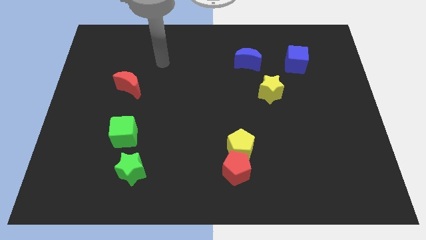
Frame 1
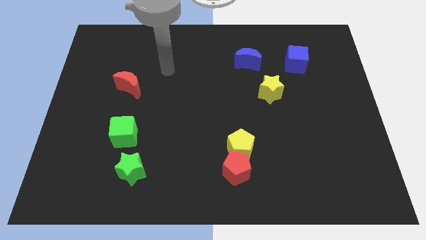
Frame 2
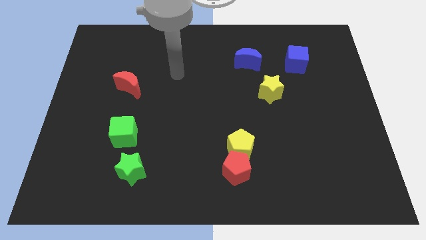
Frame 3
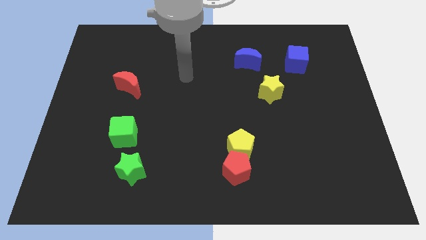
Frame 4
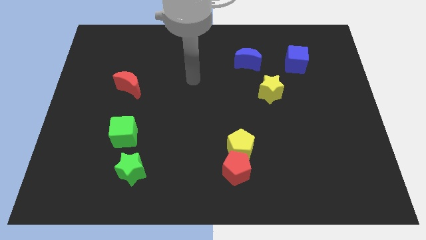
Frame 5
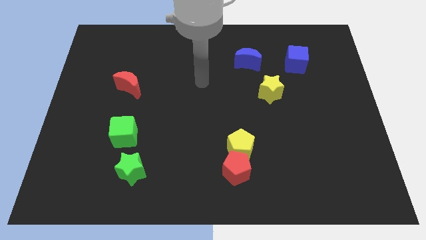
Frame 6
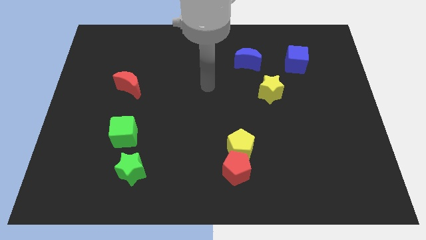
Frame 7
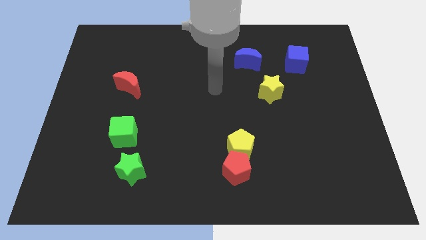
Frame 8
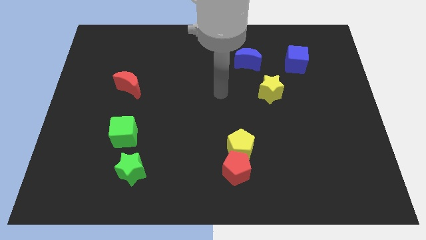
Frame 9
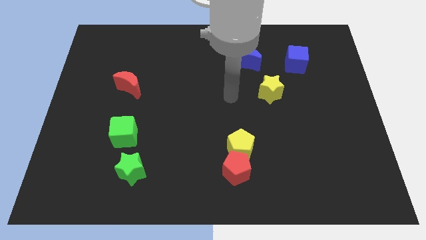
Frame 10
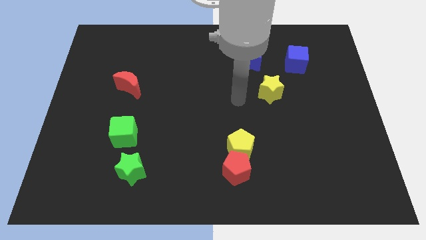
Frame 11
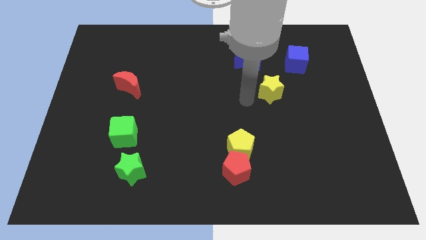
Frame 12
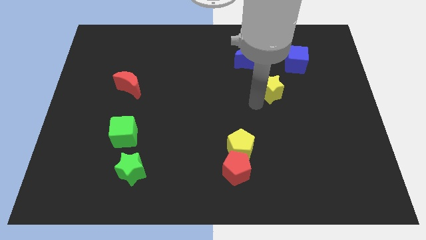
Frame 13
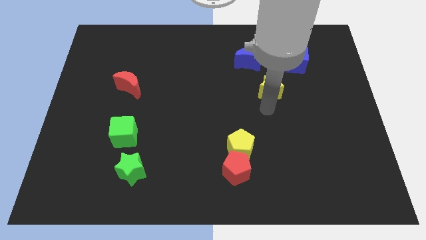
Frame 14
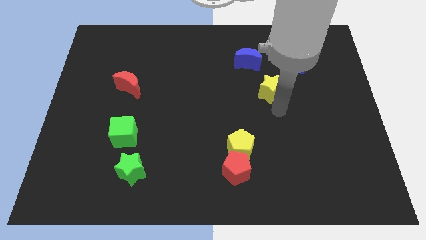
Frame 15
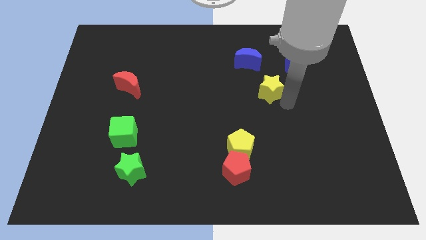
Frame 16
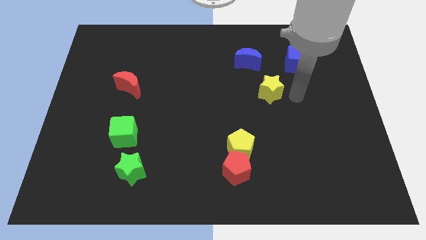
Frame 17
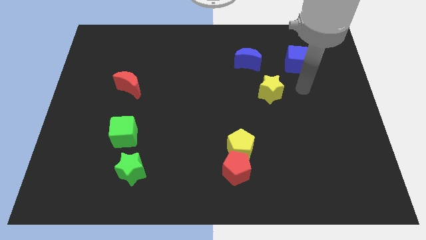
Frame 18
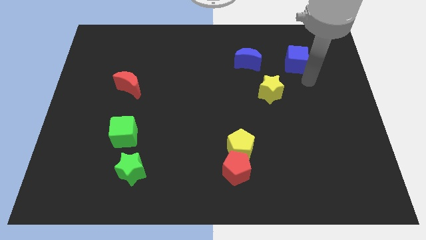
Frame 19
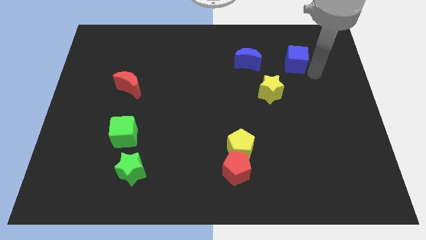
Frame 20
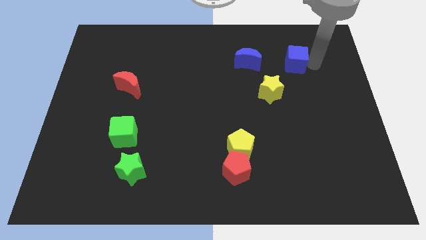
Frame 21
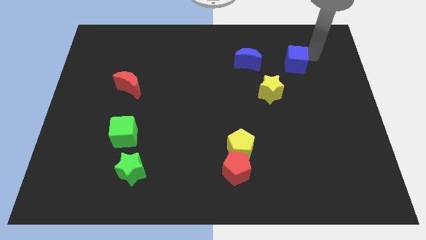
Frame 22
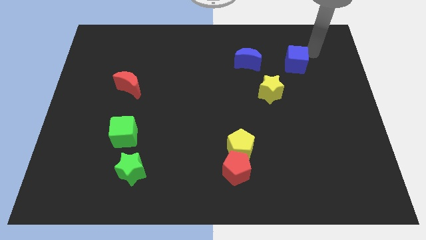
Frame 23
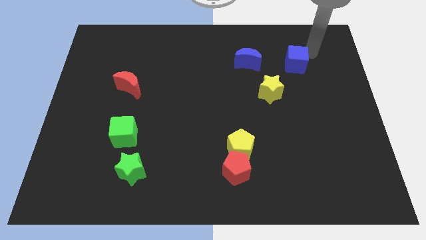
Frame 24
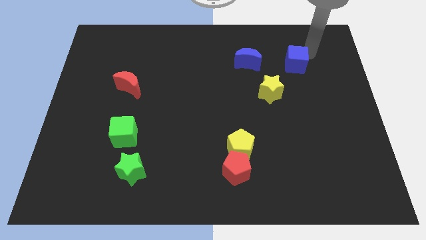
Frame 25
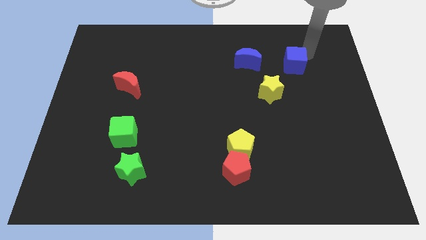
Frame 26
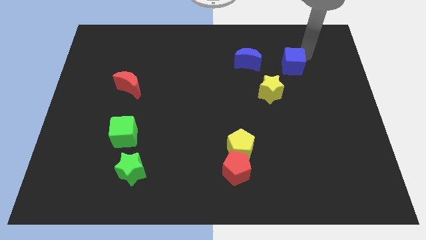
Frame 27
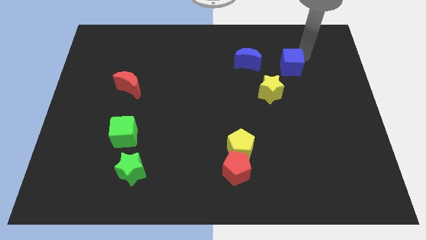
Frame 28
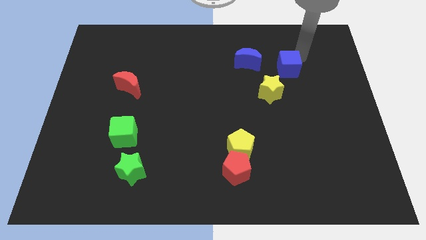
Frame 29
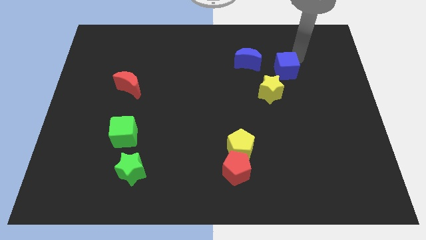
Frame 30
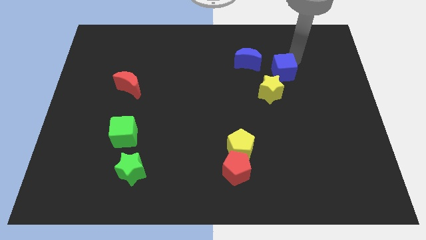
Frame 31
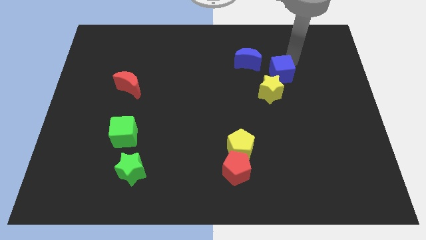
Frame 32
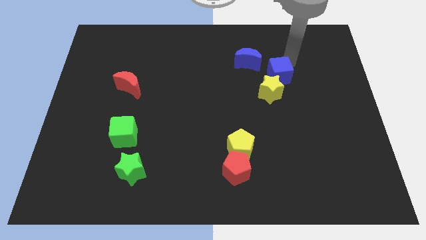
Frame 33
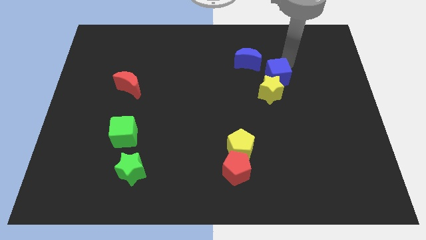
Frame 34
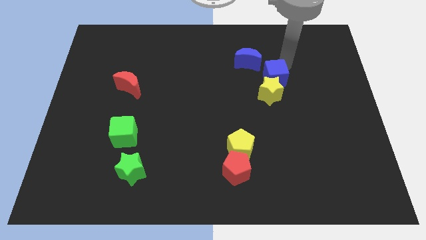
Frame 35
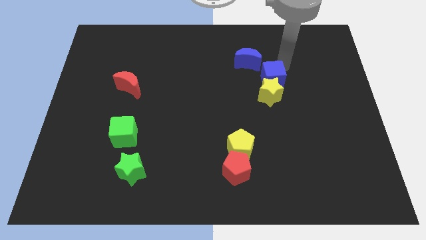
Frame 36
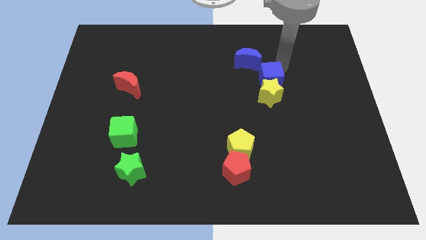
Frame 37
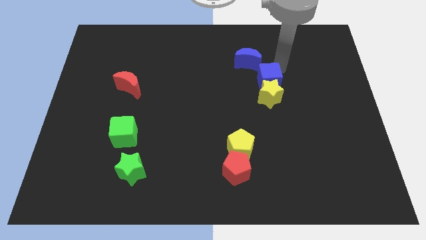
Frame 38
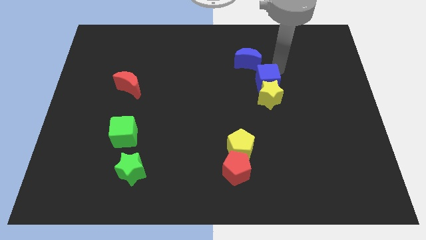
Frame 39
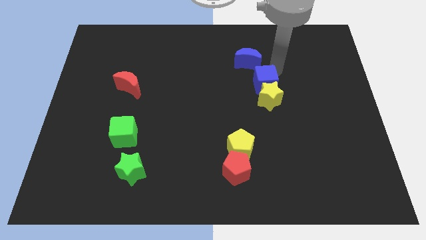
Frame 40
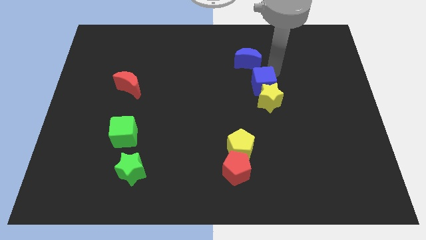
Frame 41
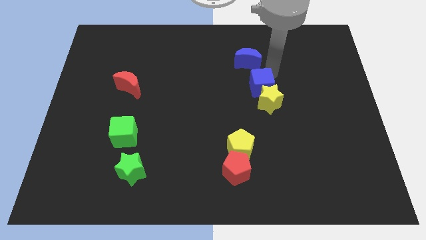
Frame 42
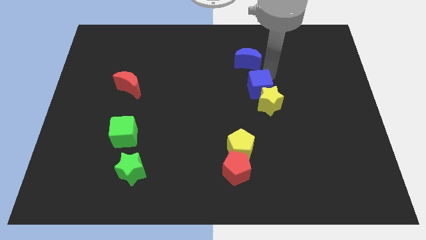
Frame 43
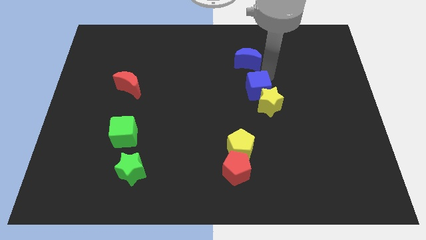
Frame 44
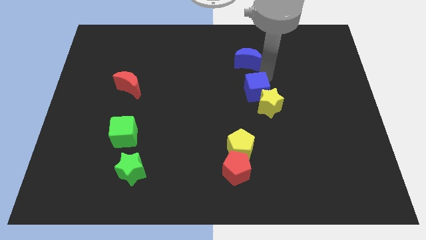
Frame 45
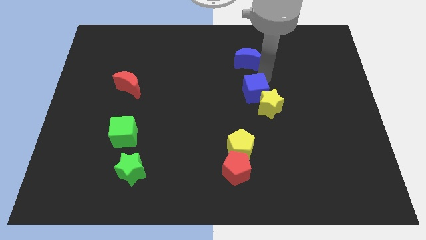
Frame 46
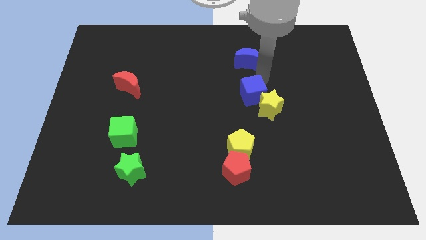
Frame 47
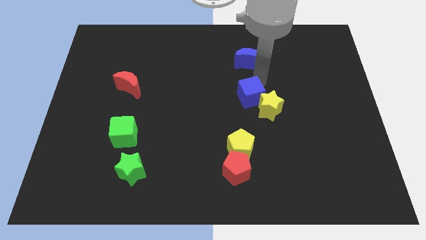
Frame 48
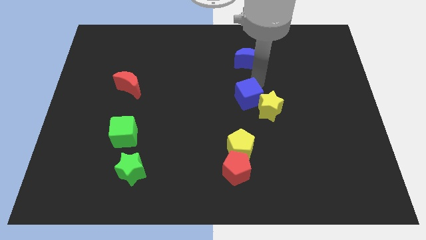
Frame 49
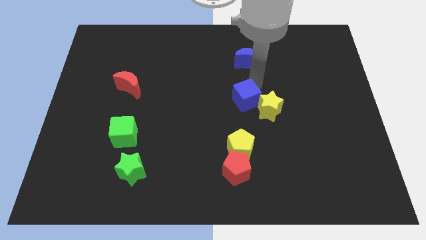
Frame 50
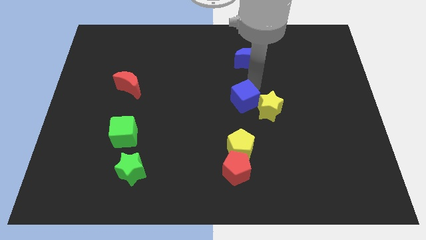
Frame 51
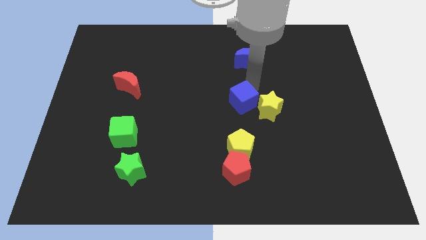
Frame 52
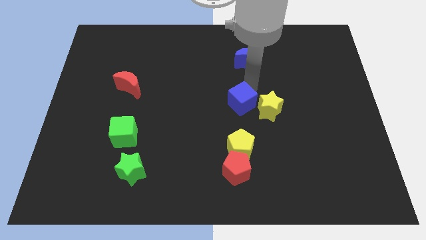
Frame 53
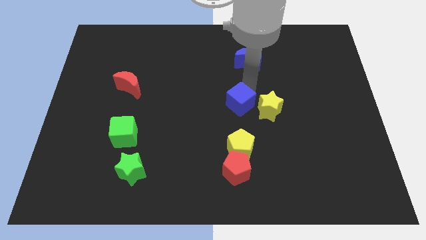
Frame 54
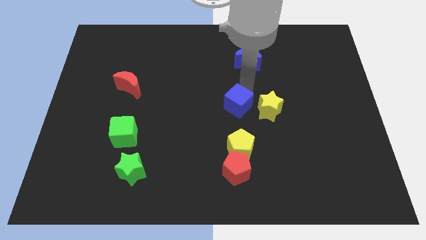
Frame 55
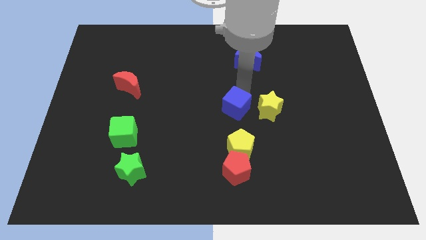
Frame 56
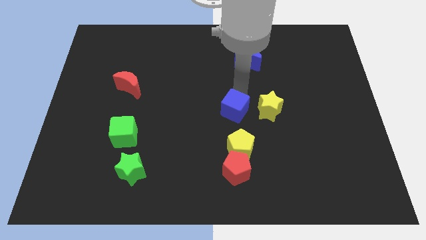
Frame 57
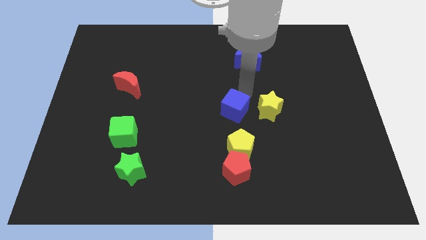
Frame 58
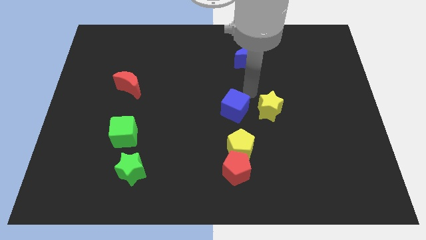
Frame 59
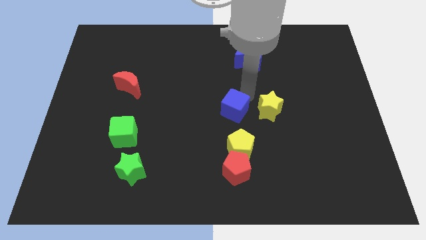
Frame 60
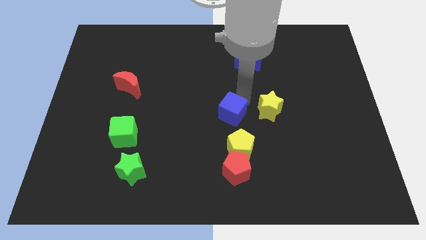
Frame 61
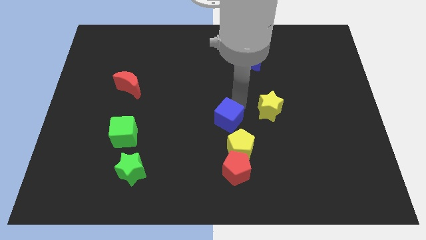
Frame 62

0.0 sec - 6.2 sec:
put the blue cube to the top left side of the yellow pentagon
